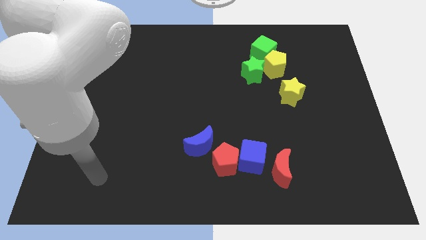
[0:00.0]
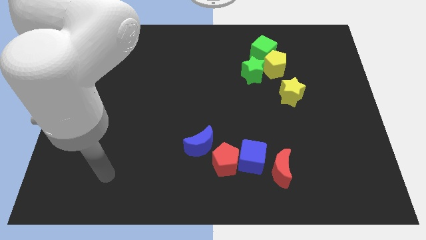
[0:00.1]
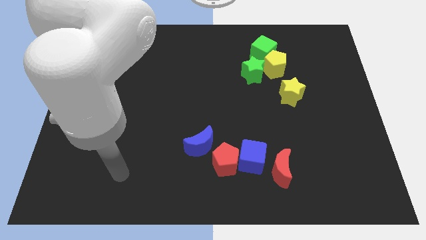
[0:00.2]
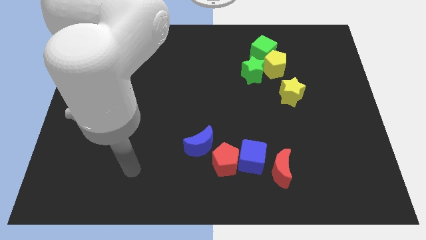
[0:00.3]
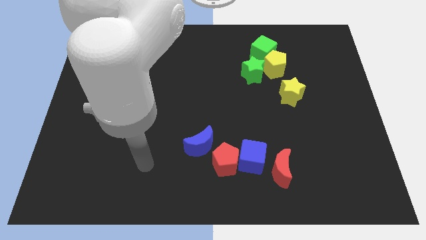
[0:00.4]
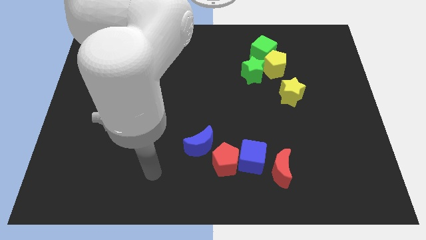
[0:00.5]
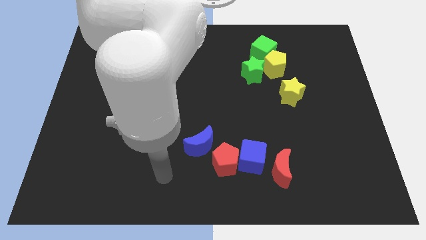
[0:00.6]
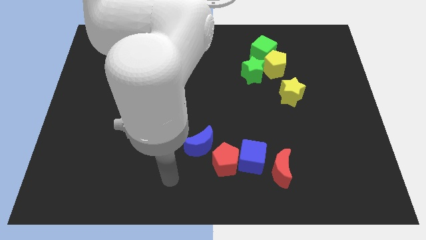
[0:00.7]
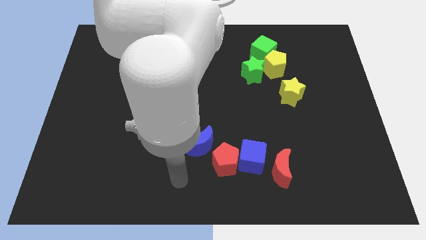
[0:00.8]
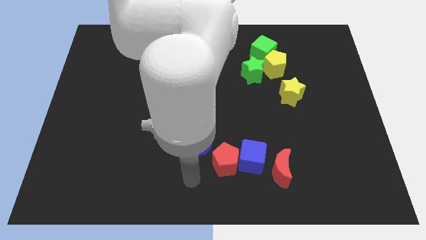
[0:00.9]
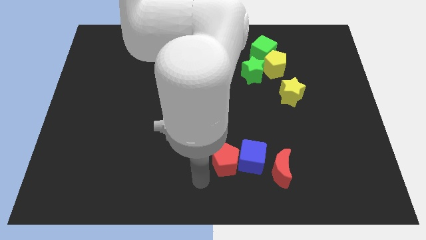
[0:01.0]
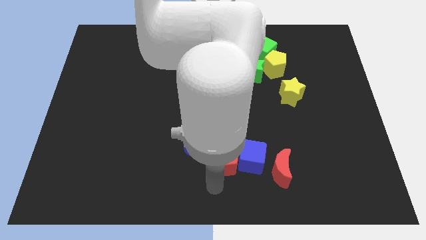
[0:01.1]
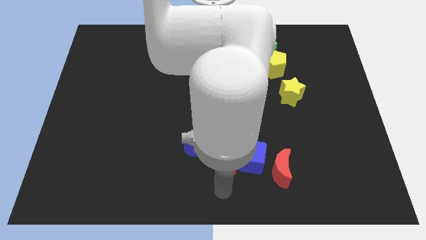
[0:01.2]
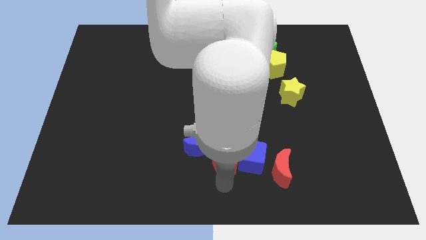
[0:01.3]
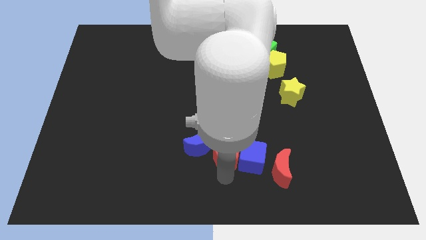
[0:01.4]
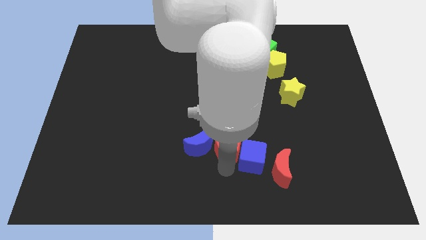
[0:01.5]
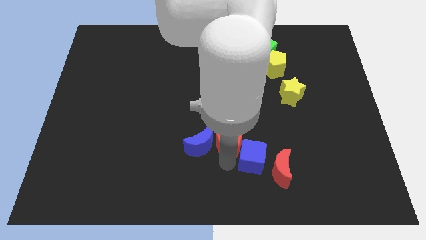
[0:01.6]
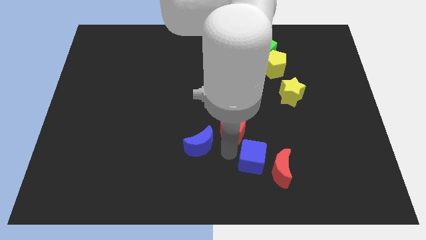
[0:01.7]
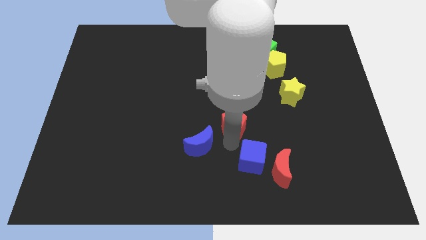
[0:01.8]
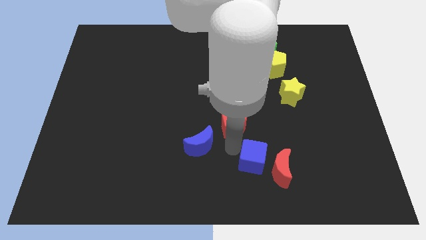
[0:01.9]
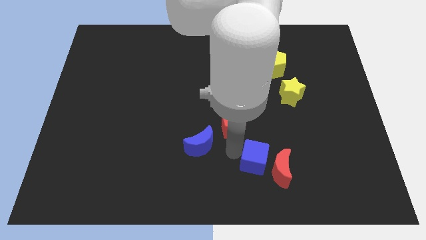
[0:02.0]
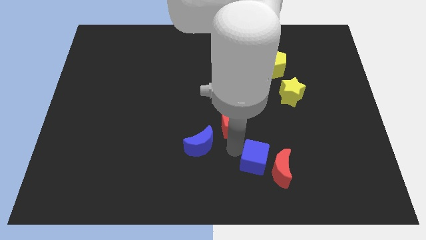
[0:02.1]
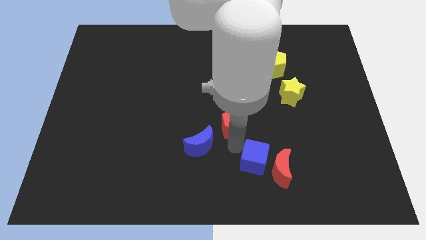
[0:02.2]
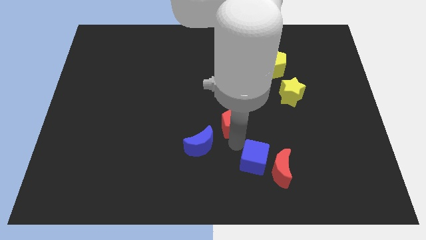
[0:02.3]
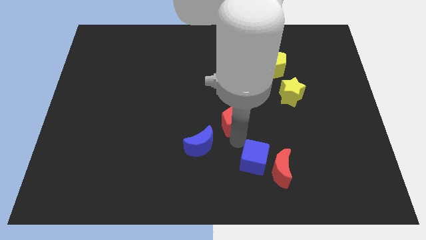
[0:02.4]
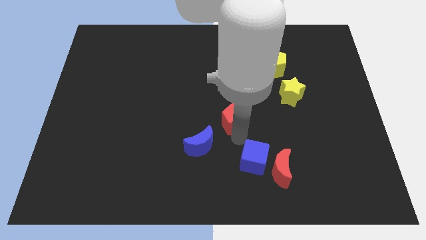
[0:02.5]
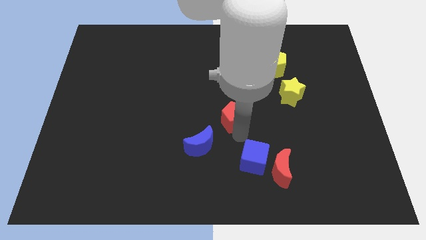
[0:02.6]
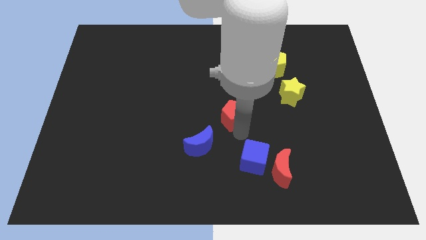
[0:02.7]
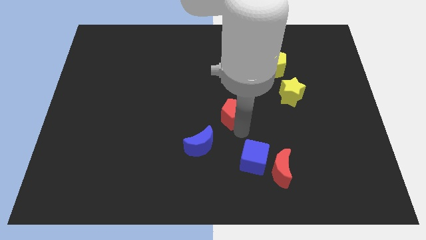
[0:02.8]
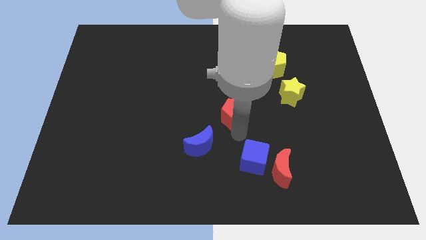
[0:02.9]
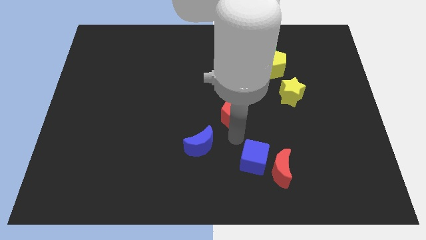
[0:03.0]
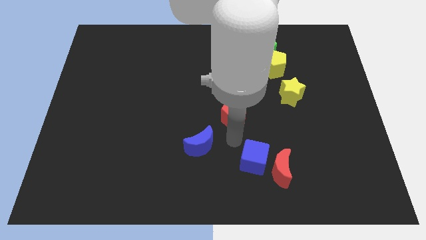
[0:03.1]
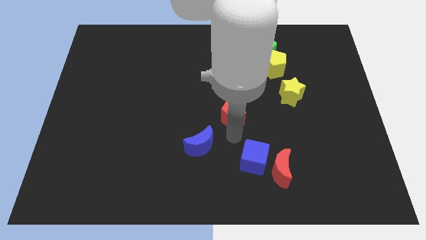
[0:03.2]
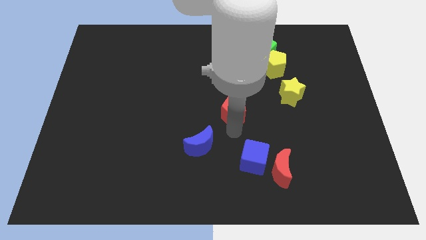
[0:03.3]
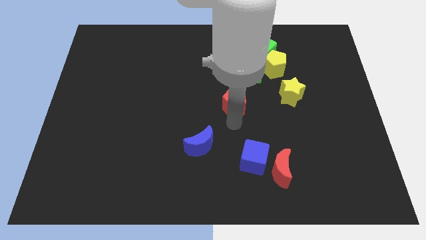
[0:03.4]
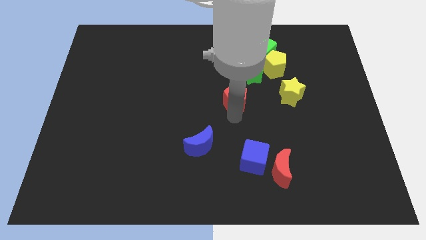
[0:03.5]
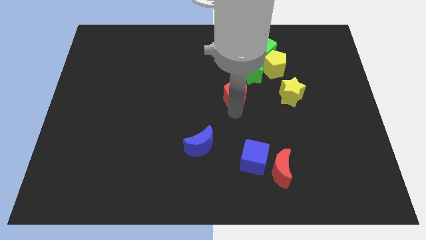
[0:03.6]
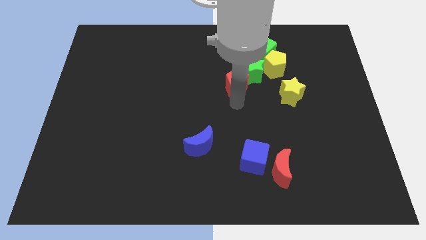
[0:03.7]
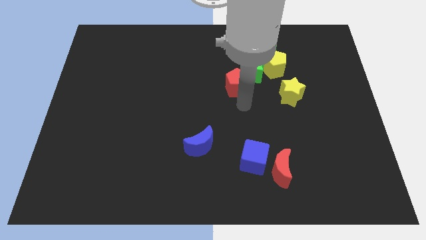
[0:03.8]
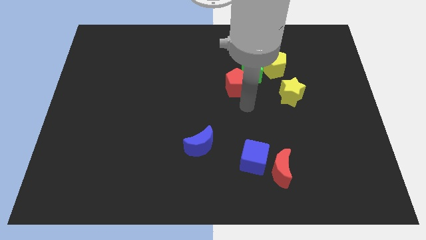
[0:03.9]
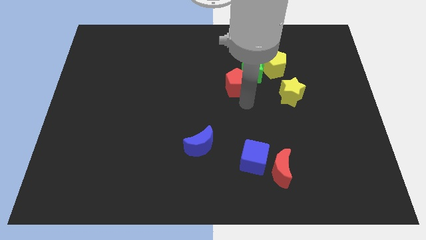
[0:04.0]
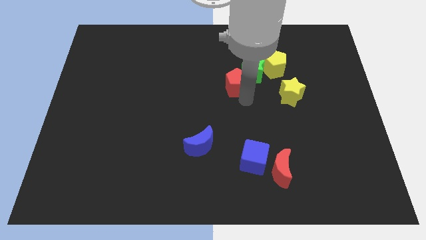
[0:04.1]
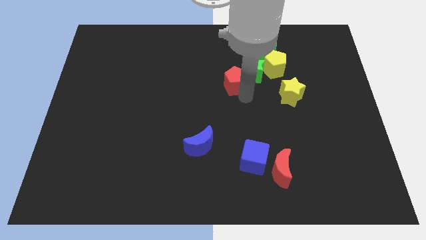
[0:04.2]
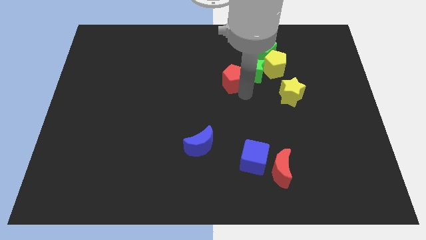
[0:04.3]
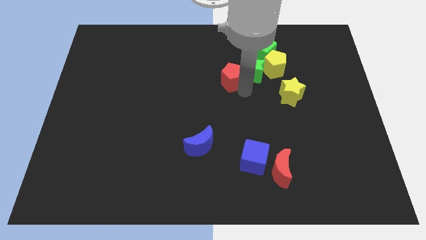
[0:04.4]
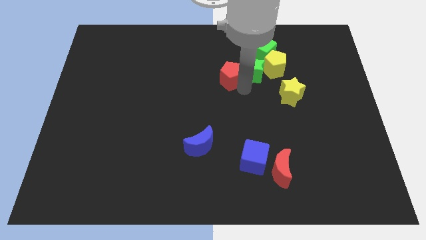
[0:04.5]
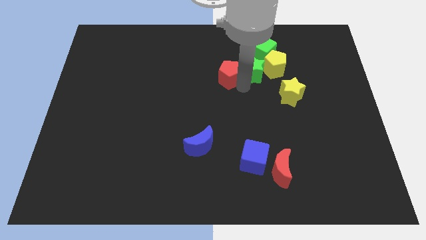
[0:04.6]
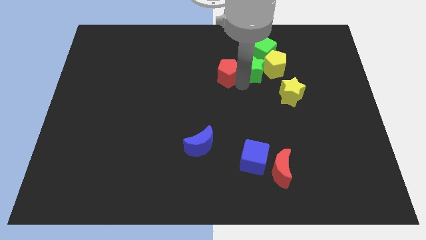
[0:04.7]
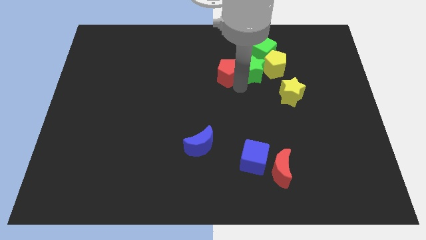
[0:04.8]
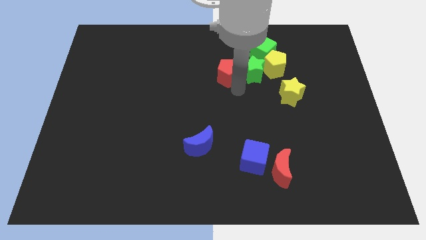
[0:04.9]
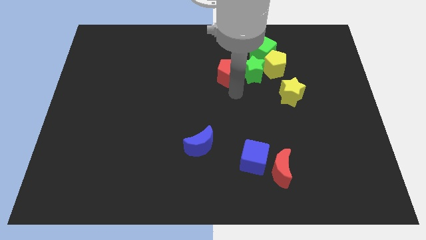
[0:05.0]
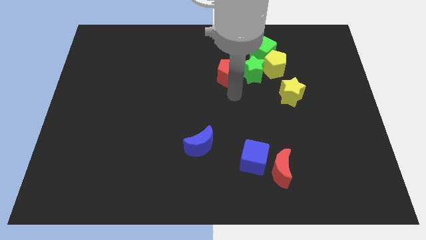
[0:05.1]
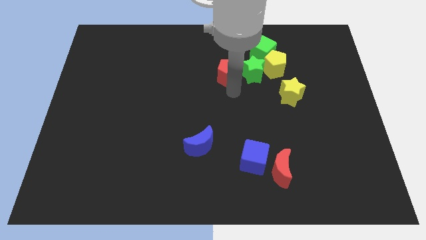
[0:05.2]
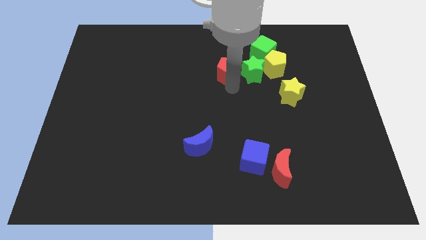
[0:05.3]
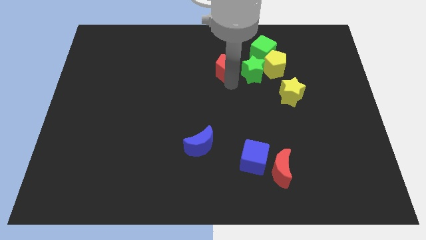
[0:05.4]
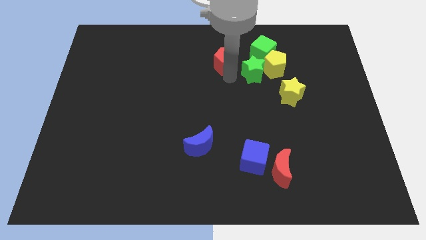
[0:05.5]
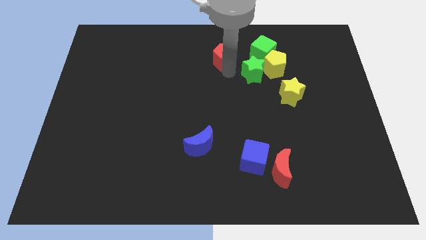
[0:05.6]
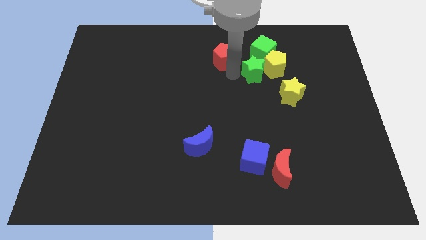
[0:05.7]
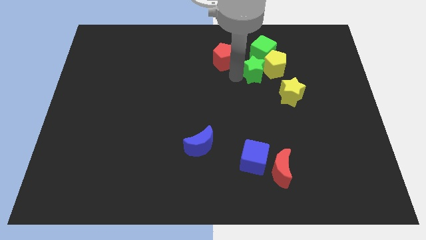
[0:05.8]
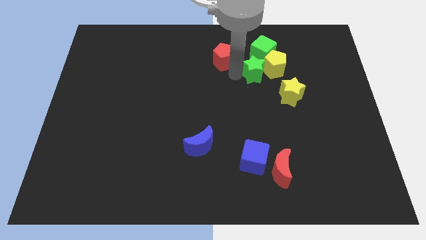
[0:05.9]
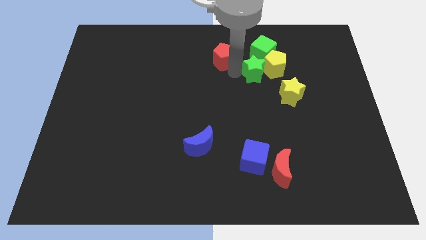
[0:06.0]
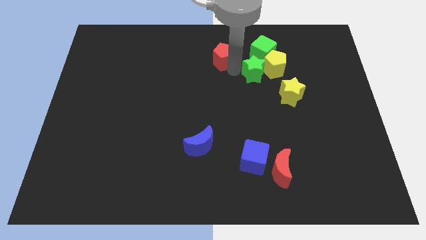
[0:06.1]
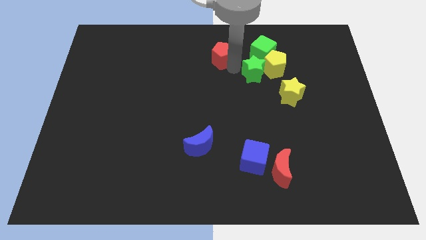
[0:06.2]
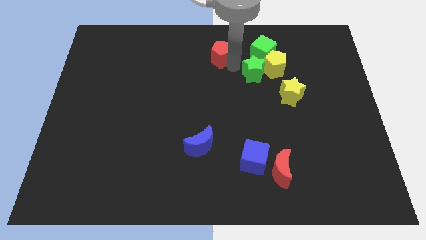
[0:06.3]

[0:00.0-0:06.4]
slide the red pentagon to the top

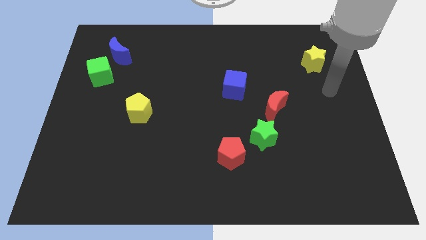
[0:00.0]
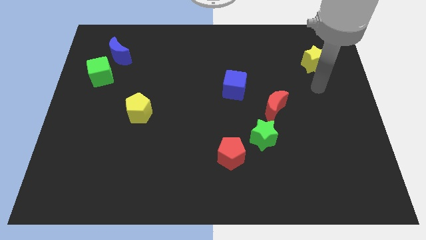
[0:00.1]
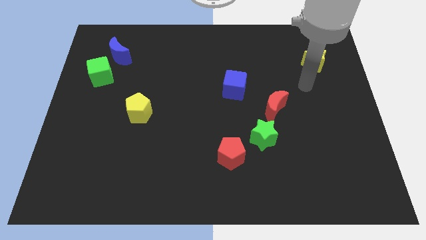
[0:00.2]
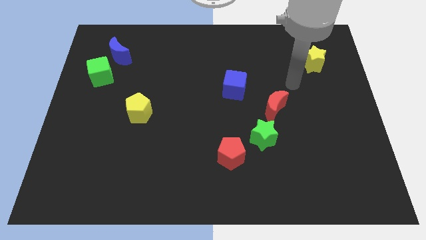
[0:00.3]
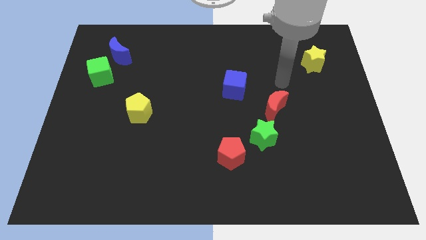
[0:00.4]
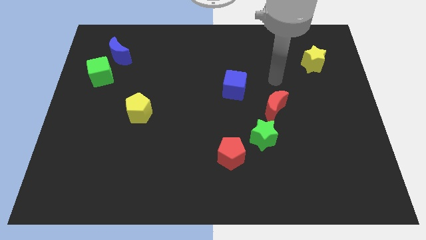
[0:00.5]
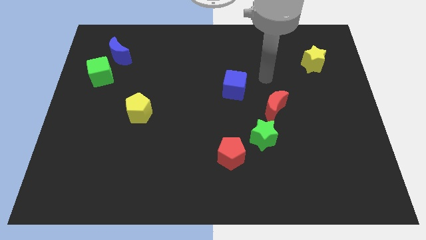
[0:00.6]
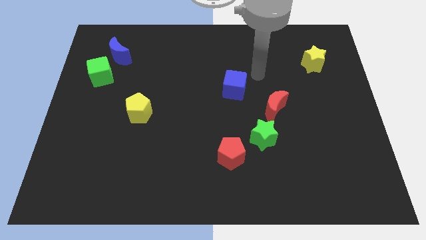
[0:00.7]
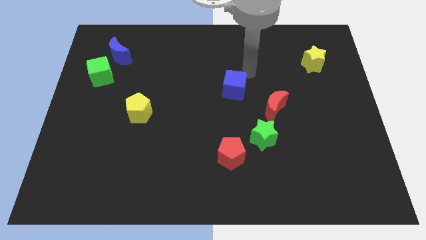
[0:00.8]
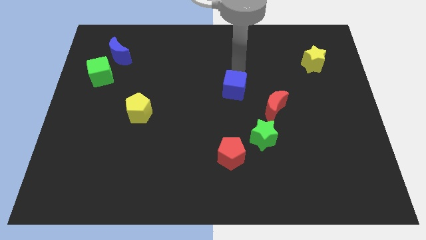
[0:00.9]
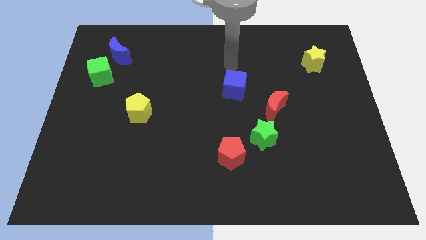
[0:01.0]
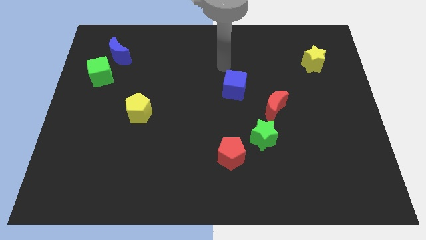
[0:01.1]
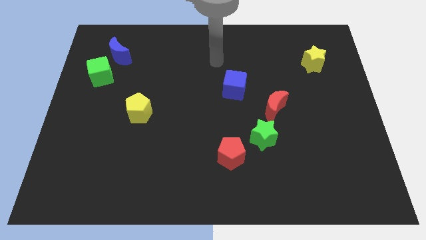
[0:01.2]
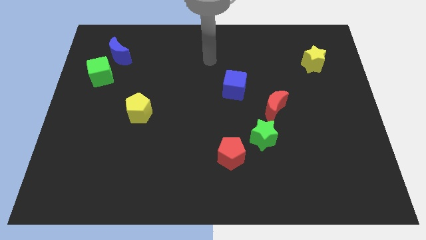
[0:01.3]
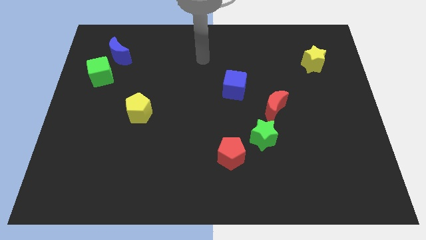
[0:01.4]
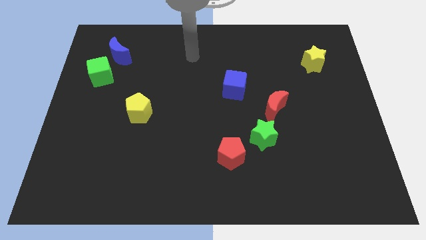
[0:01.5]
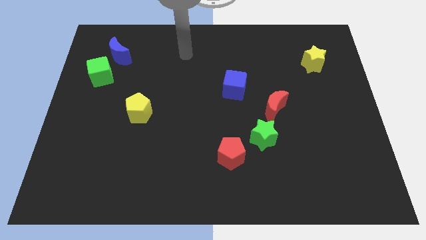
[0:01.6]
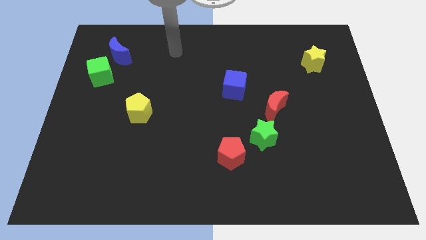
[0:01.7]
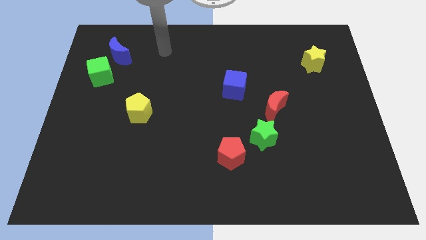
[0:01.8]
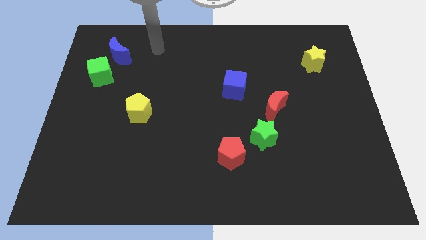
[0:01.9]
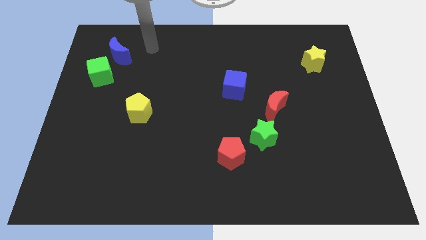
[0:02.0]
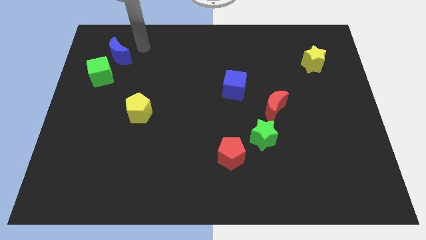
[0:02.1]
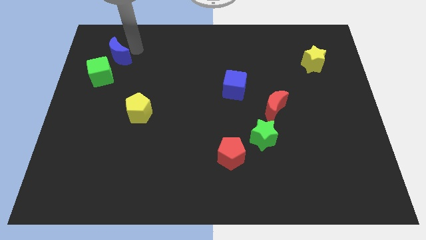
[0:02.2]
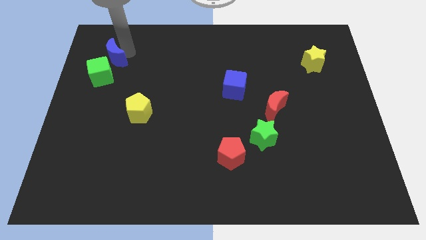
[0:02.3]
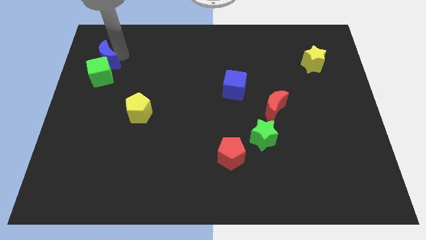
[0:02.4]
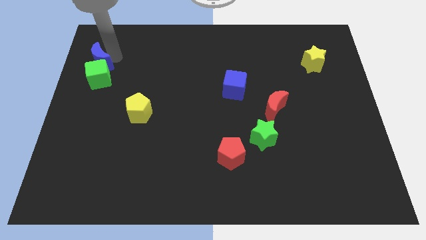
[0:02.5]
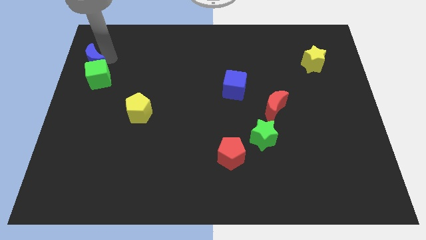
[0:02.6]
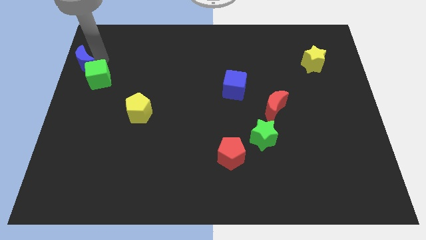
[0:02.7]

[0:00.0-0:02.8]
slide the blue moon to the left side
